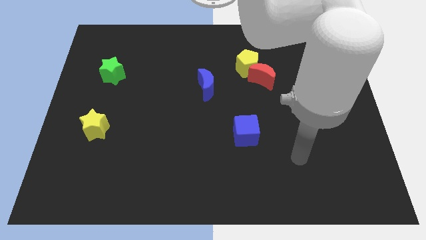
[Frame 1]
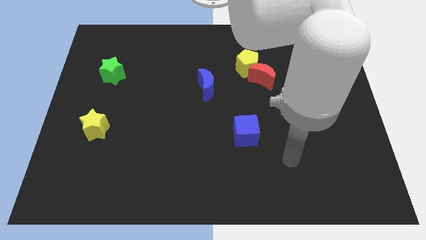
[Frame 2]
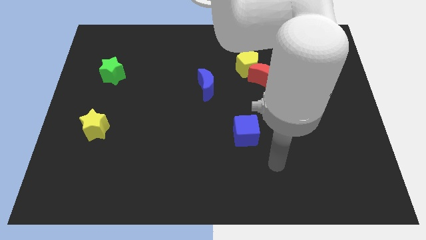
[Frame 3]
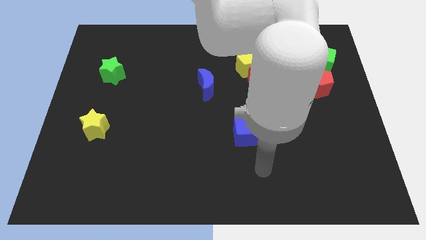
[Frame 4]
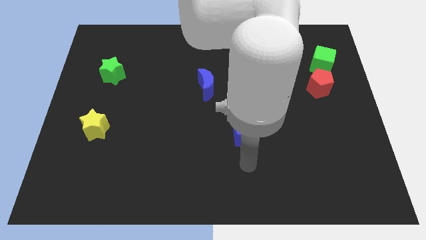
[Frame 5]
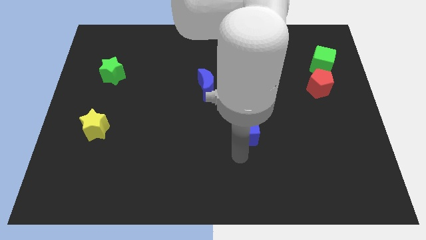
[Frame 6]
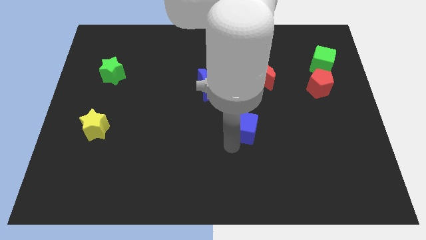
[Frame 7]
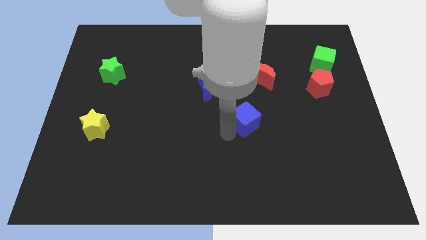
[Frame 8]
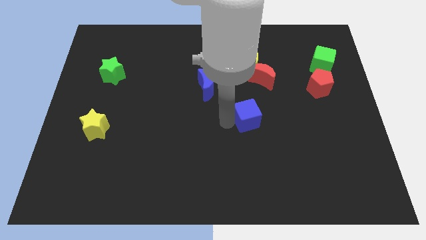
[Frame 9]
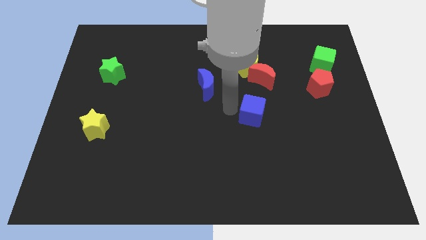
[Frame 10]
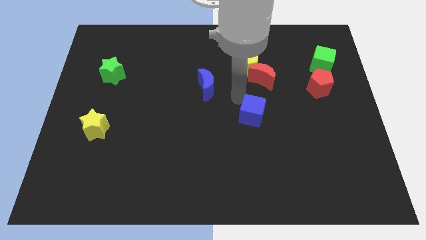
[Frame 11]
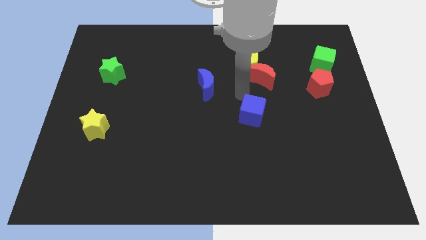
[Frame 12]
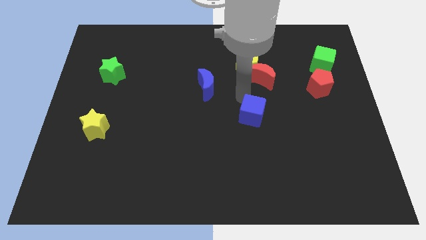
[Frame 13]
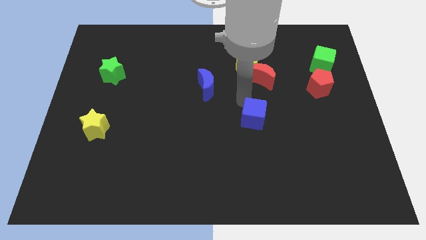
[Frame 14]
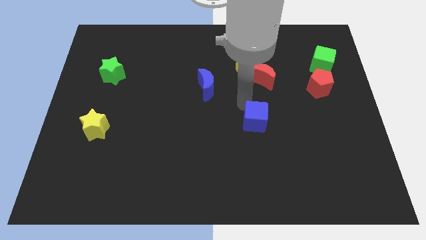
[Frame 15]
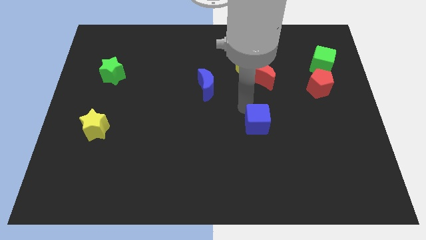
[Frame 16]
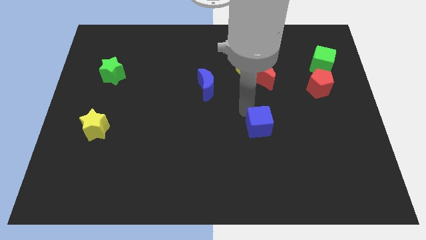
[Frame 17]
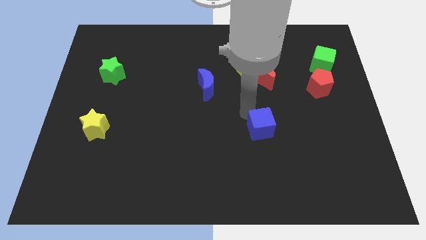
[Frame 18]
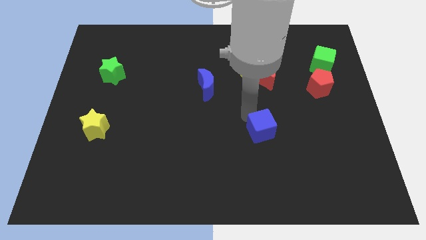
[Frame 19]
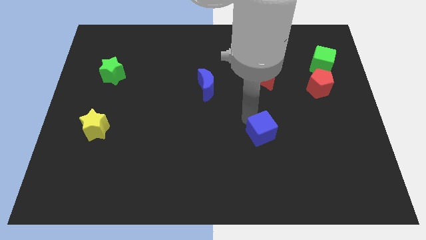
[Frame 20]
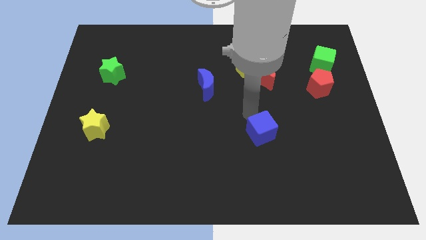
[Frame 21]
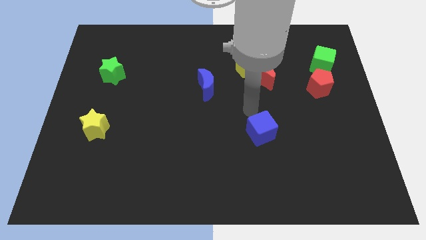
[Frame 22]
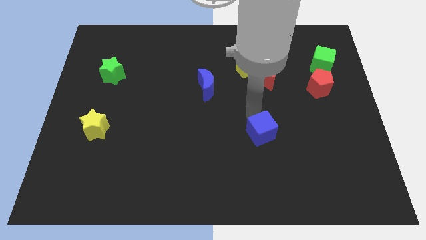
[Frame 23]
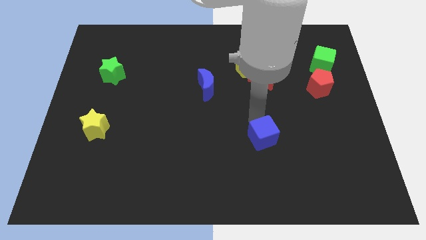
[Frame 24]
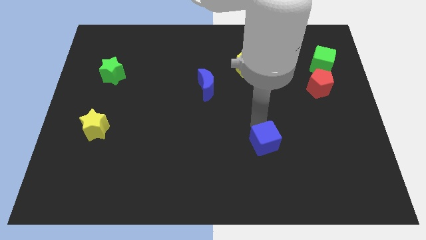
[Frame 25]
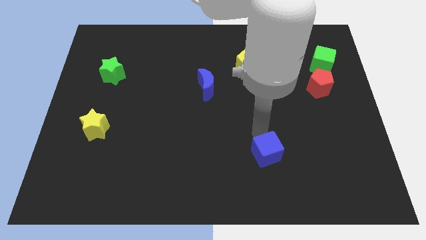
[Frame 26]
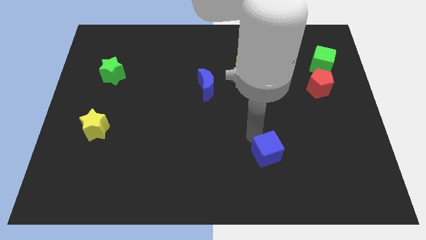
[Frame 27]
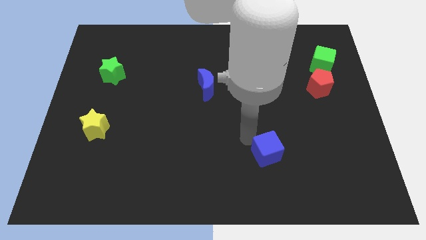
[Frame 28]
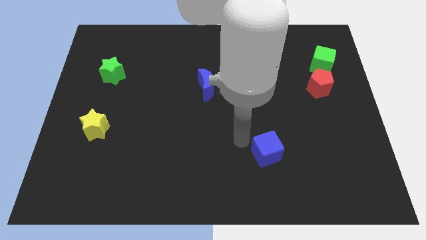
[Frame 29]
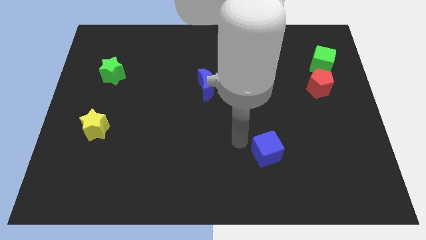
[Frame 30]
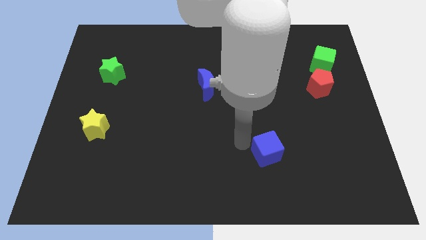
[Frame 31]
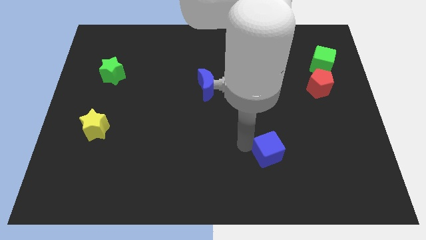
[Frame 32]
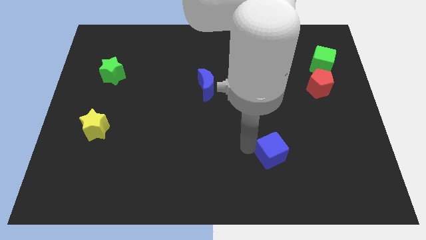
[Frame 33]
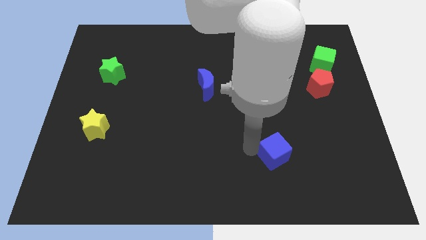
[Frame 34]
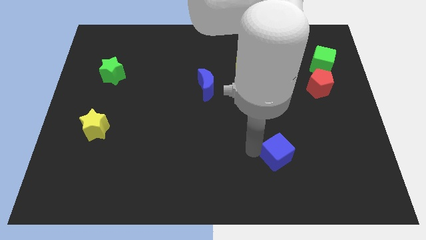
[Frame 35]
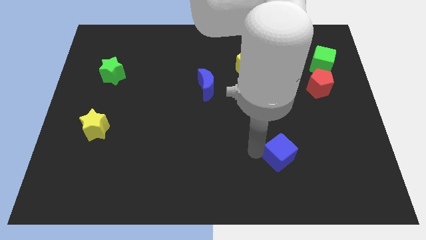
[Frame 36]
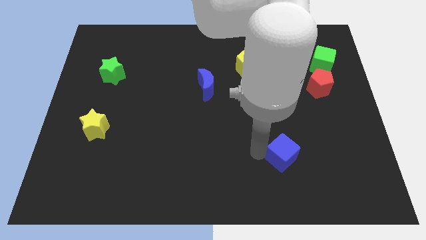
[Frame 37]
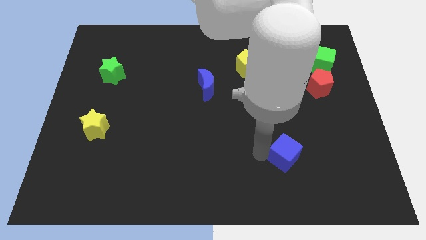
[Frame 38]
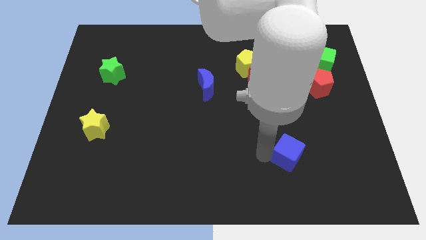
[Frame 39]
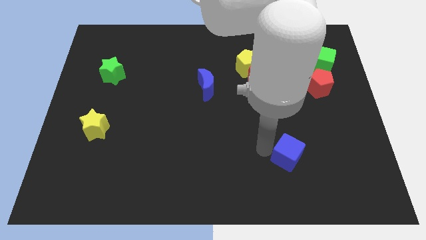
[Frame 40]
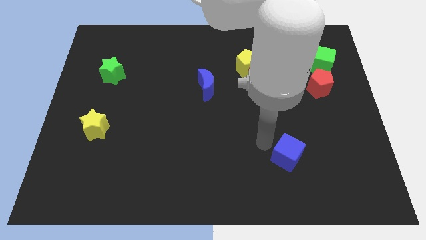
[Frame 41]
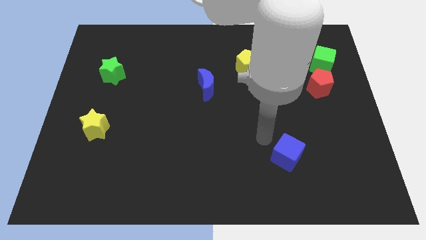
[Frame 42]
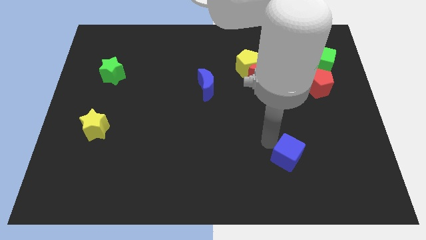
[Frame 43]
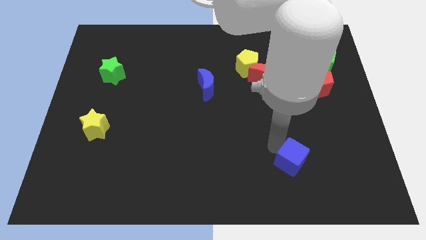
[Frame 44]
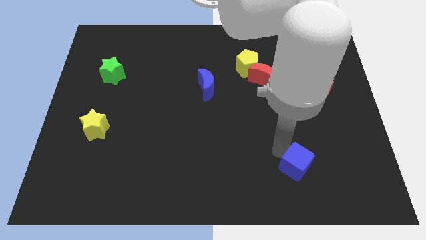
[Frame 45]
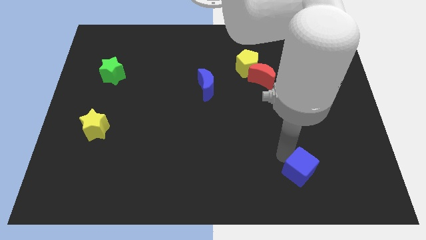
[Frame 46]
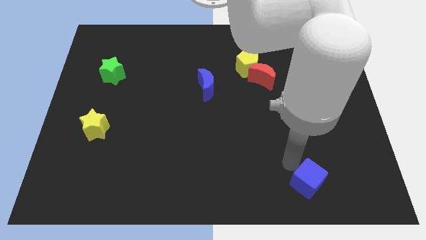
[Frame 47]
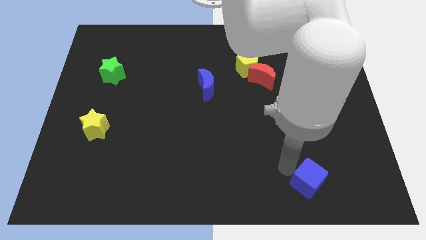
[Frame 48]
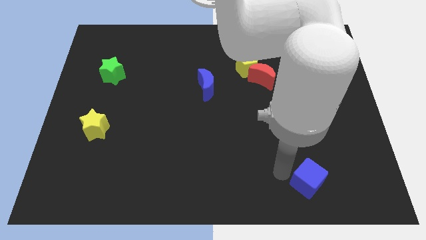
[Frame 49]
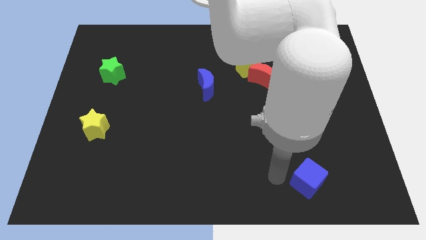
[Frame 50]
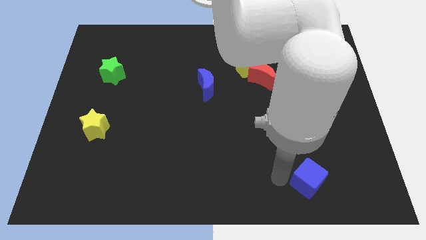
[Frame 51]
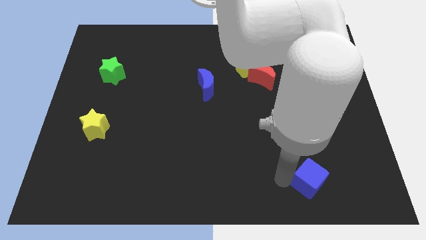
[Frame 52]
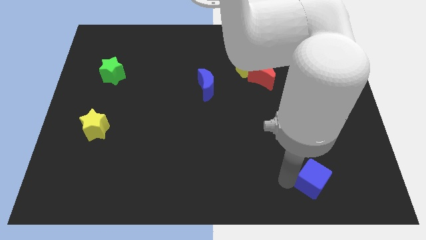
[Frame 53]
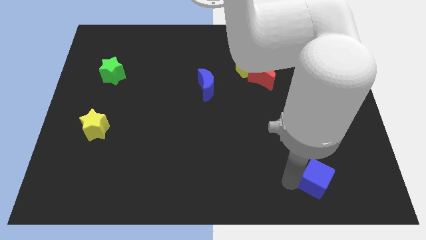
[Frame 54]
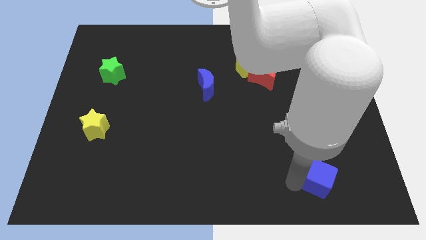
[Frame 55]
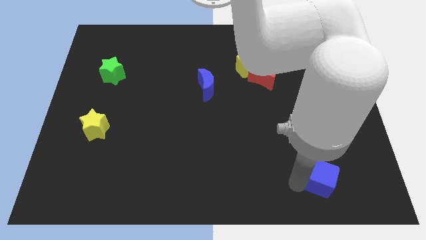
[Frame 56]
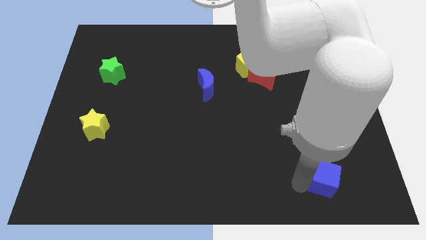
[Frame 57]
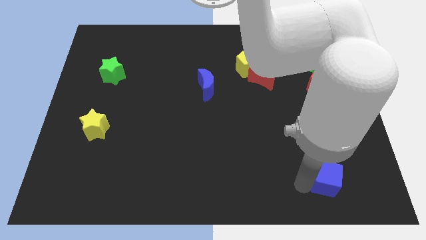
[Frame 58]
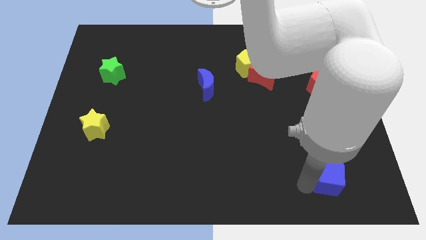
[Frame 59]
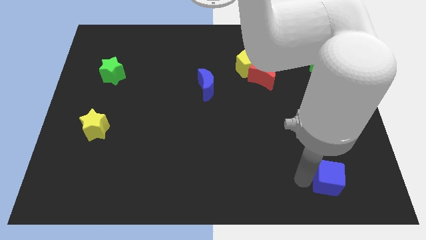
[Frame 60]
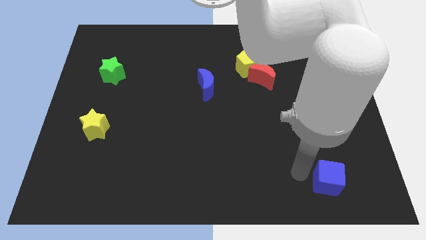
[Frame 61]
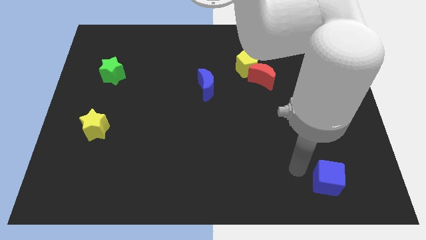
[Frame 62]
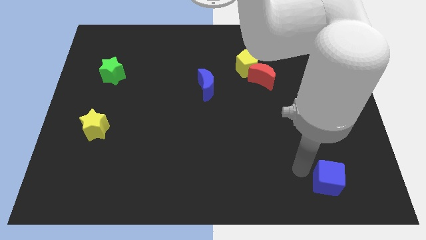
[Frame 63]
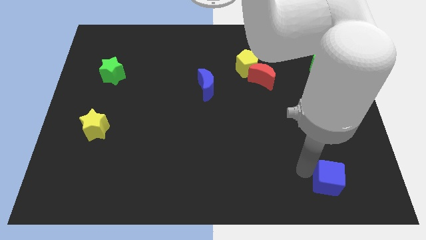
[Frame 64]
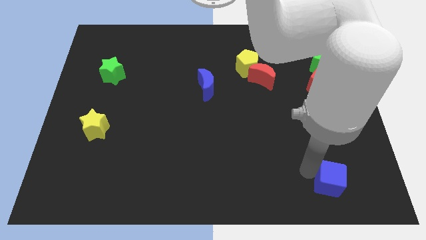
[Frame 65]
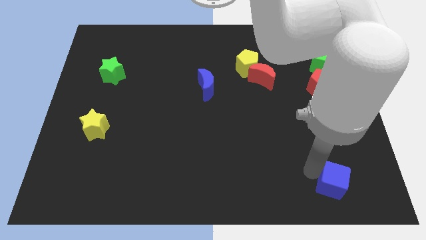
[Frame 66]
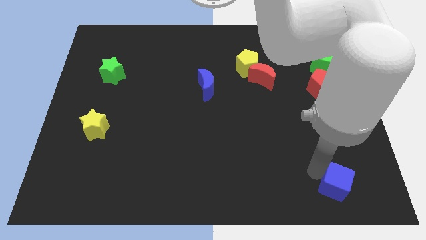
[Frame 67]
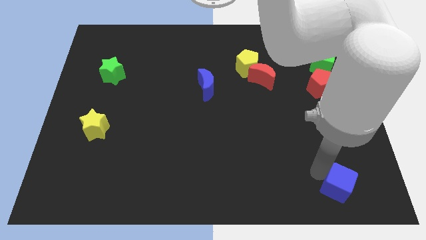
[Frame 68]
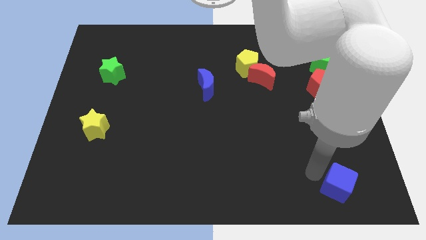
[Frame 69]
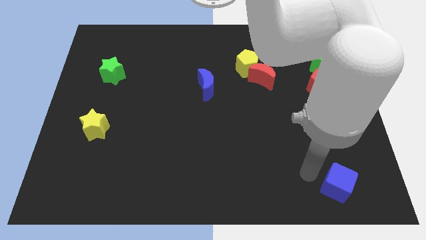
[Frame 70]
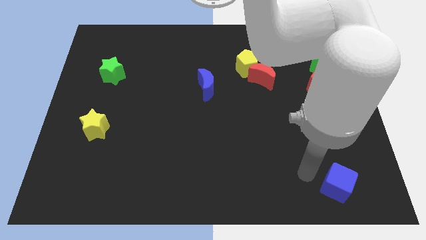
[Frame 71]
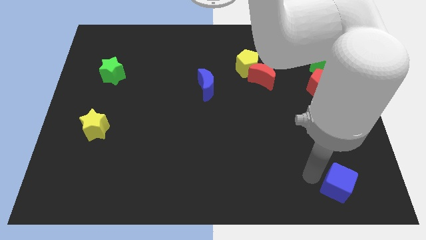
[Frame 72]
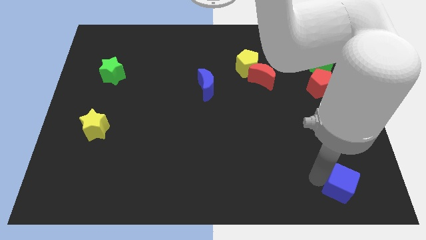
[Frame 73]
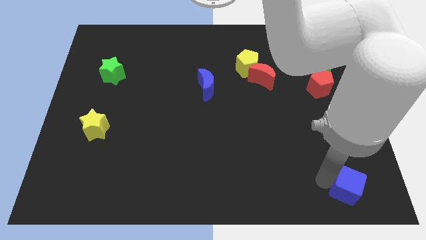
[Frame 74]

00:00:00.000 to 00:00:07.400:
slide the blue cube to the bottom right corner
